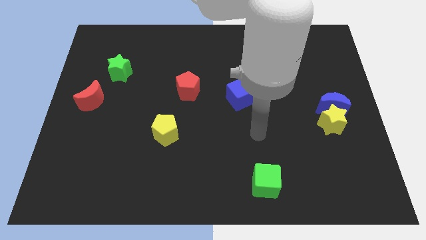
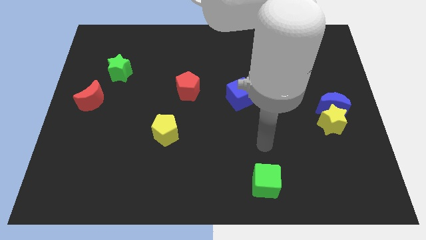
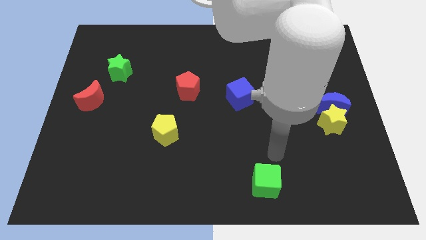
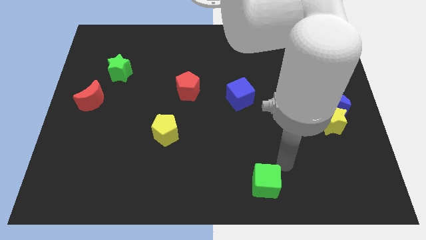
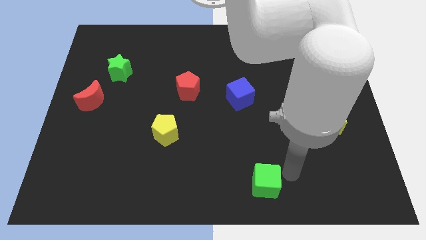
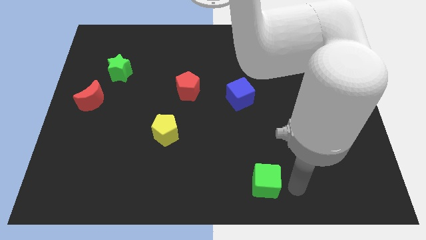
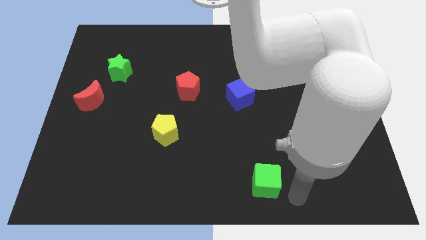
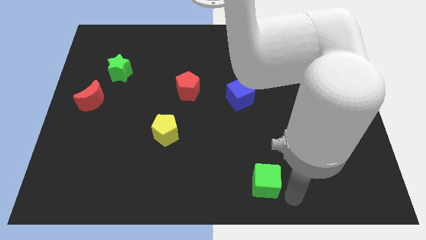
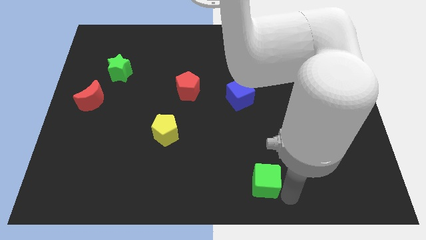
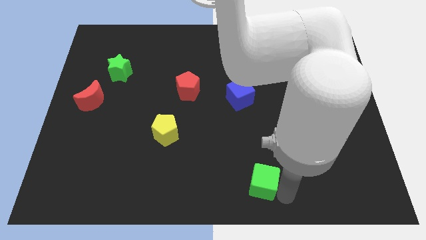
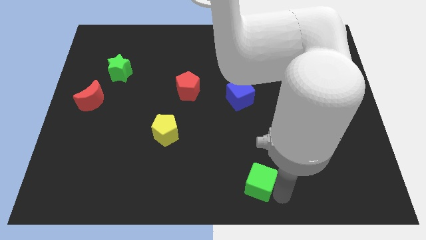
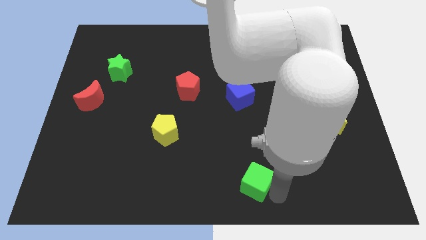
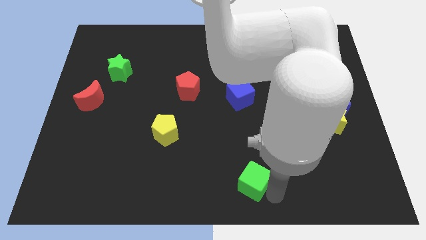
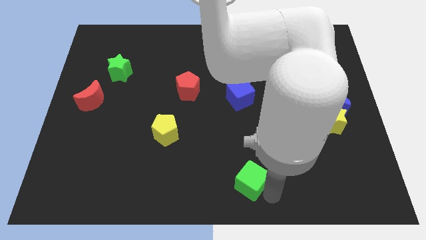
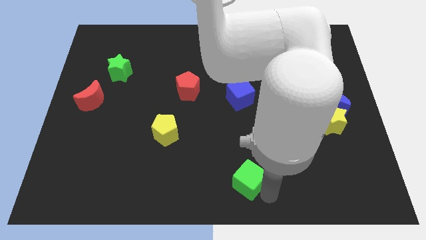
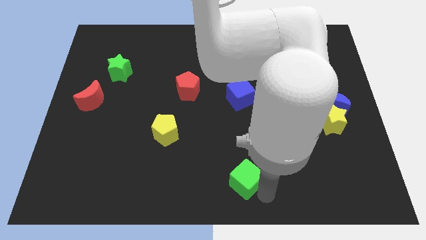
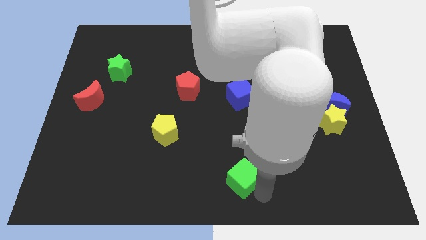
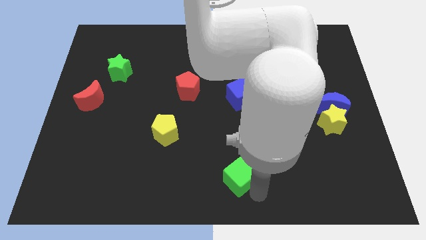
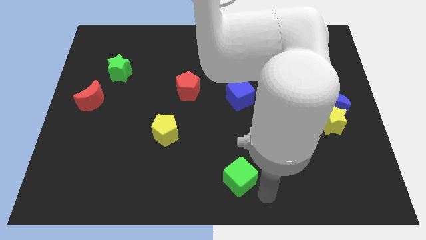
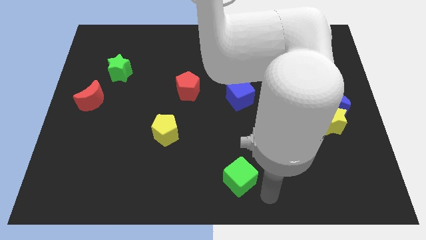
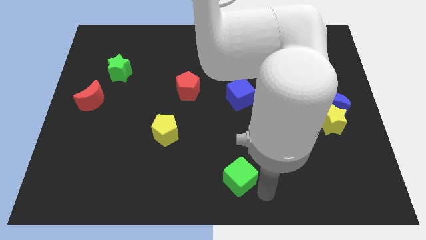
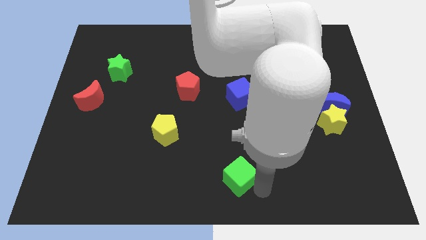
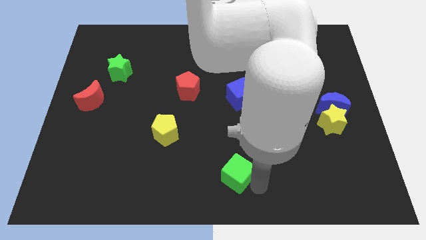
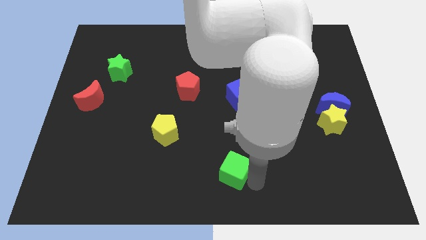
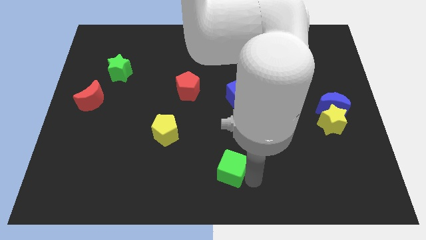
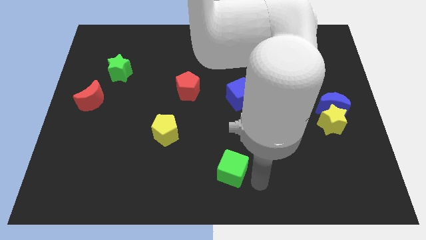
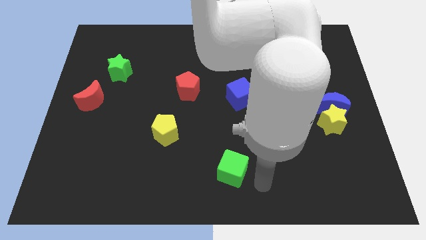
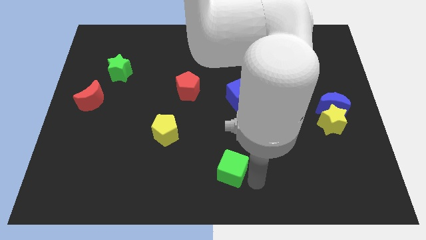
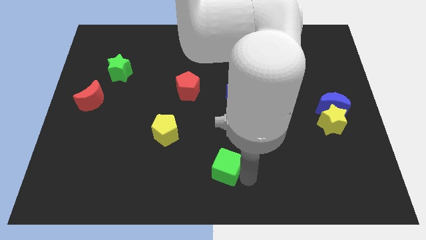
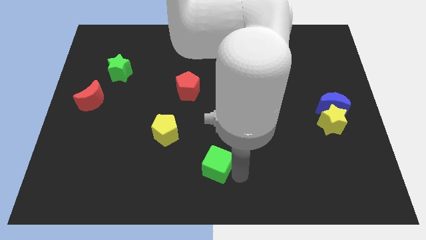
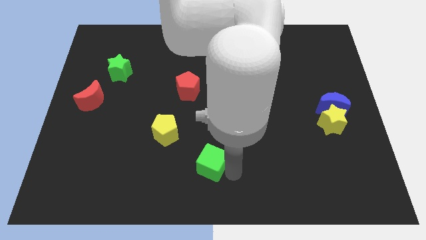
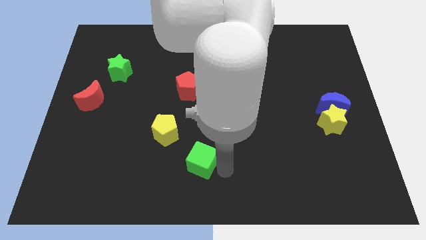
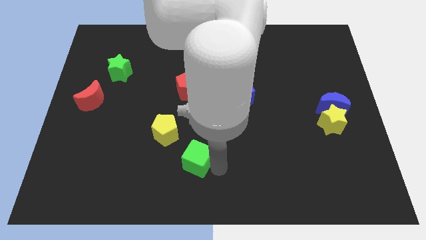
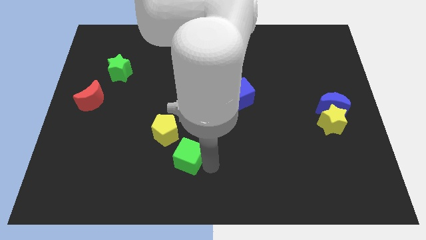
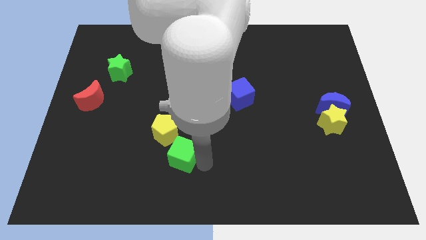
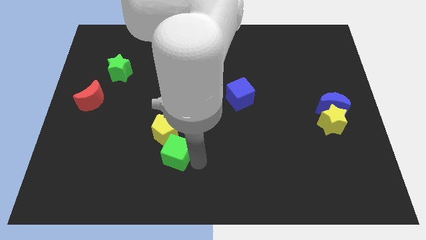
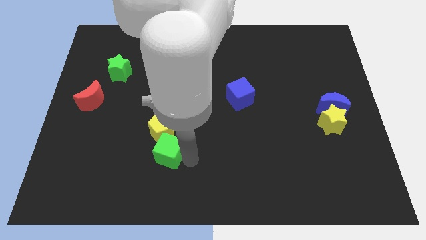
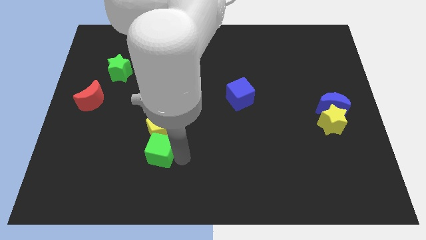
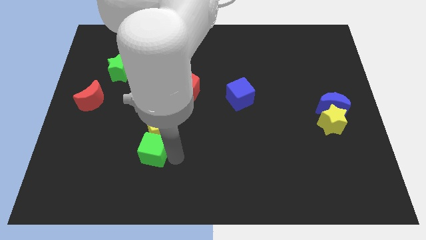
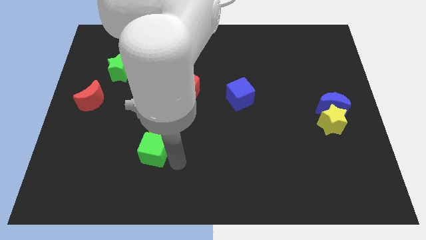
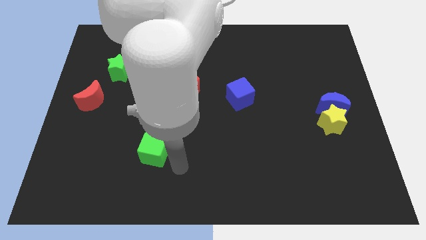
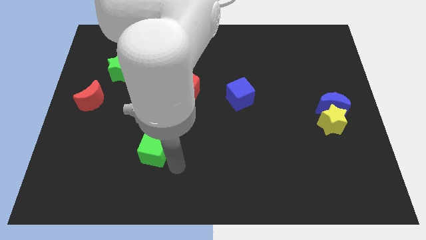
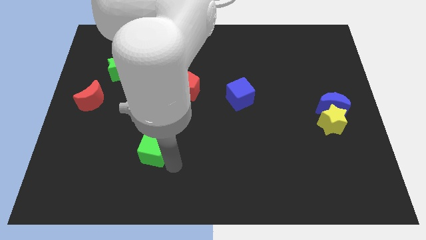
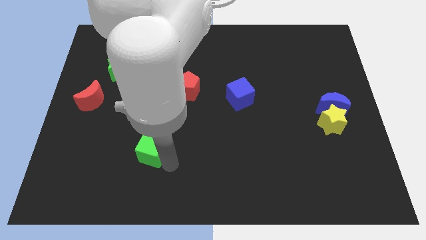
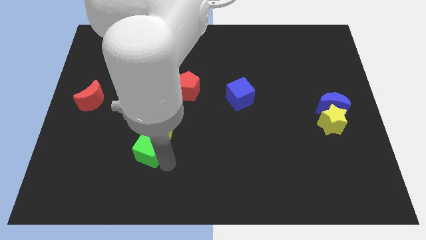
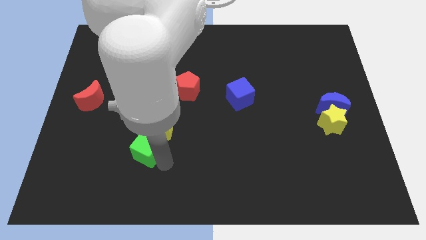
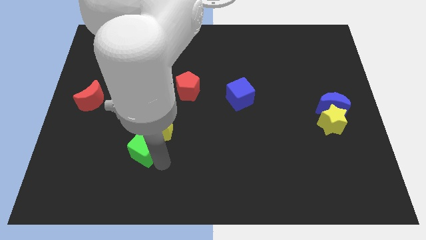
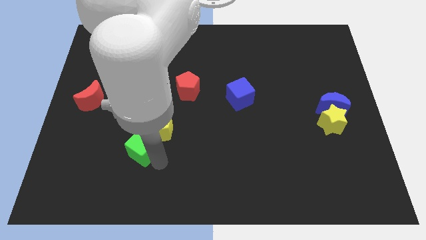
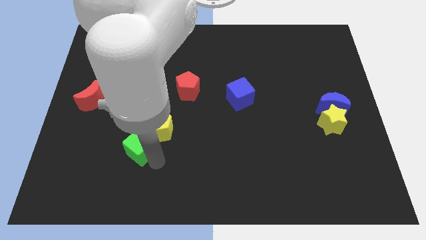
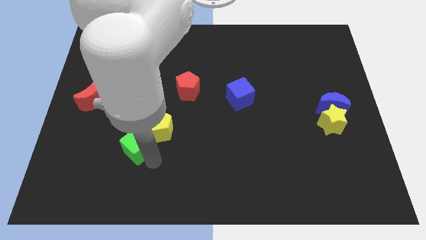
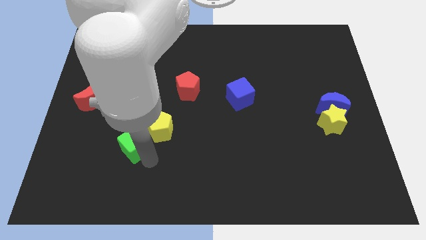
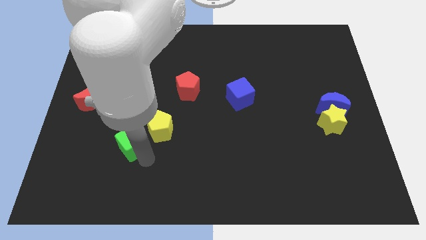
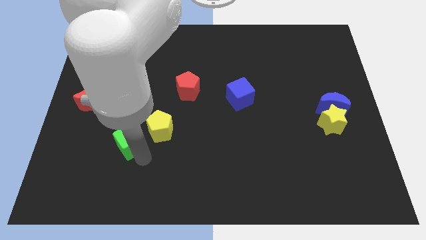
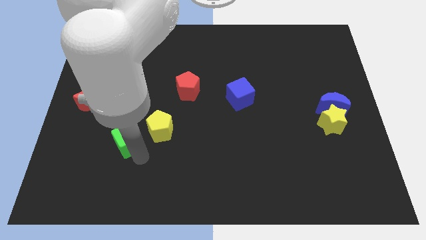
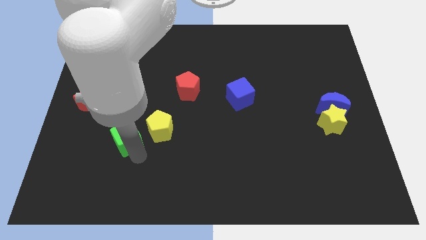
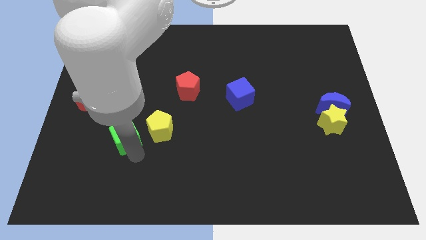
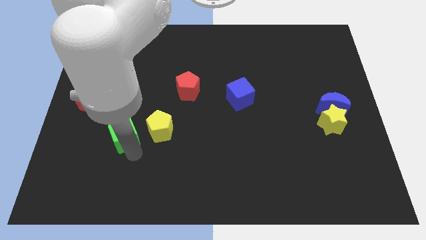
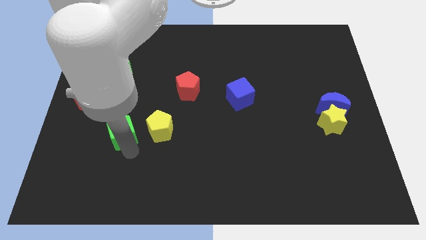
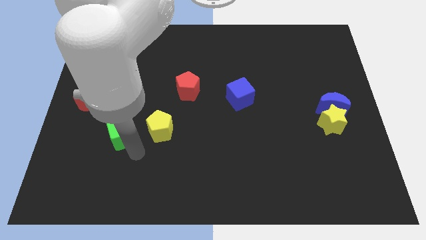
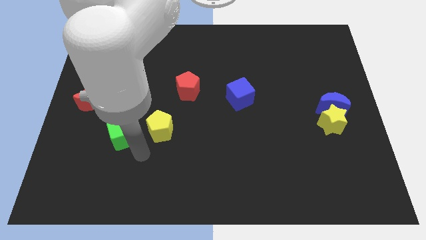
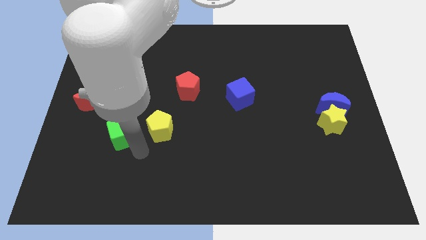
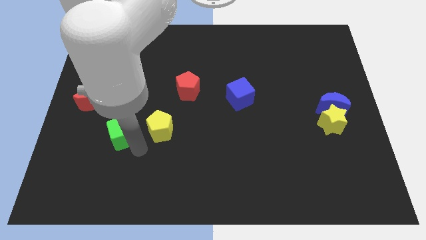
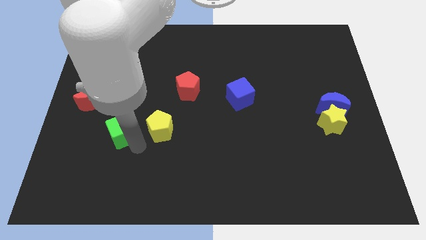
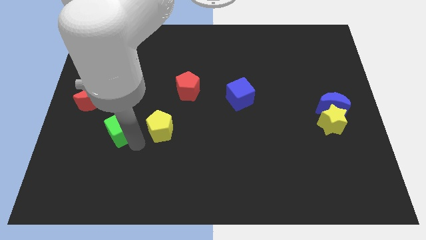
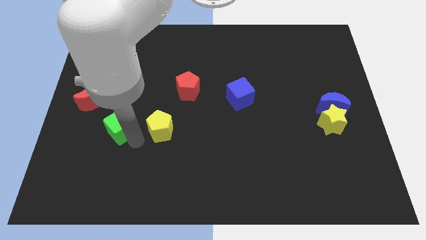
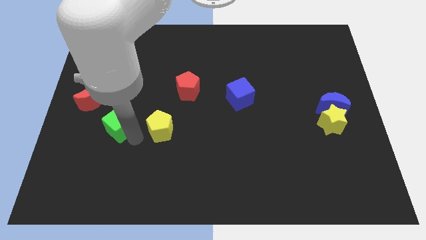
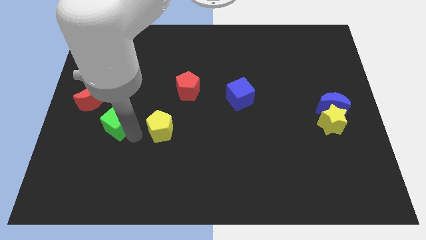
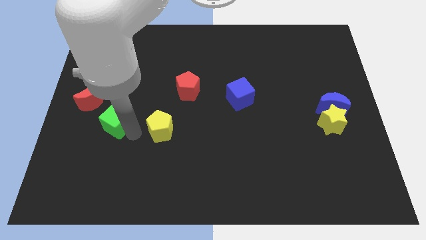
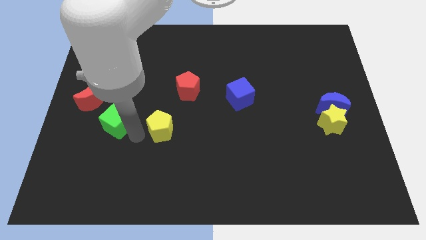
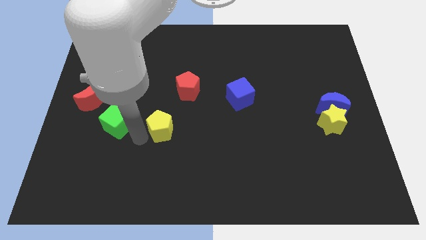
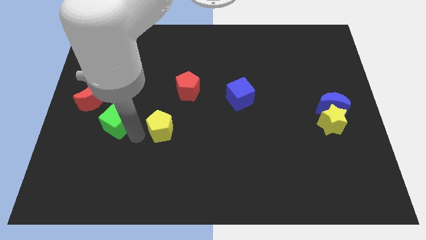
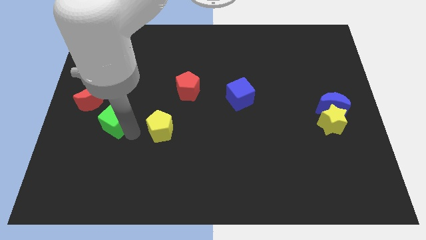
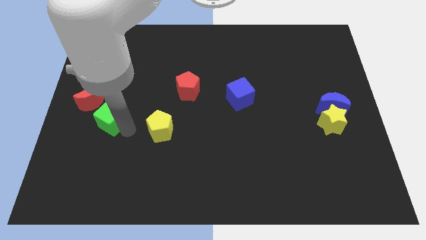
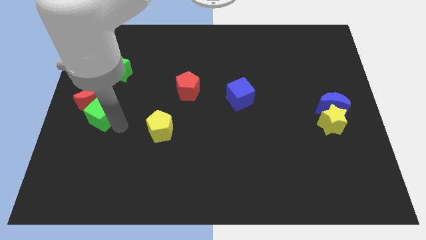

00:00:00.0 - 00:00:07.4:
slide the green cube close to the red moon
